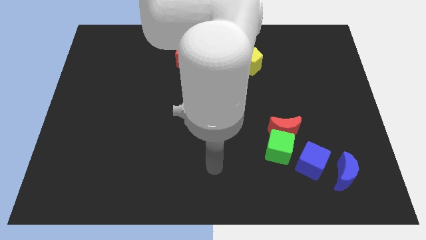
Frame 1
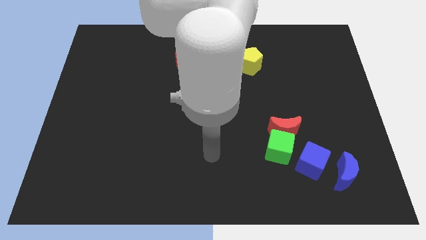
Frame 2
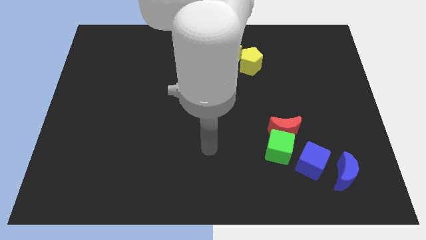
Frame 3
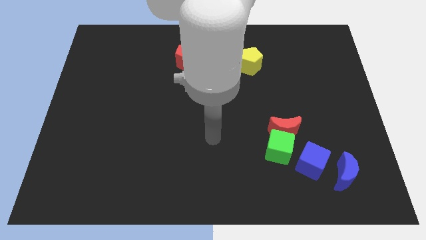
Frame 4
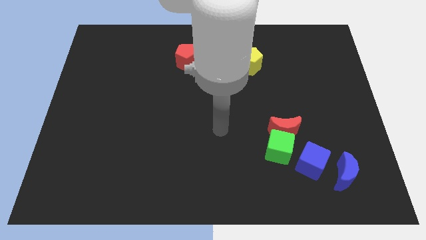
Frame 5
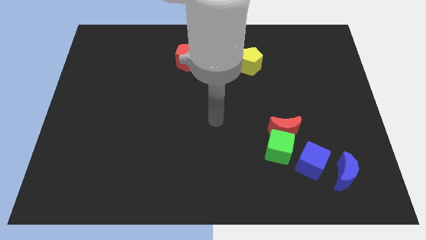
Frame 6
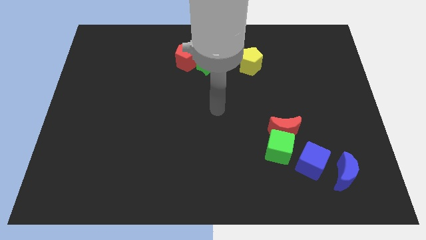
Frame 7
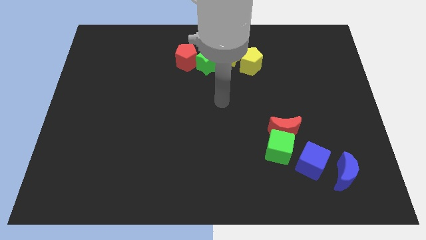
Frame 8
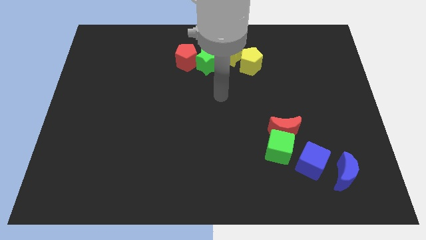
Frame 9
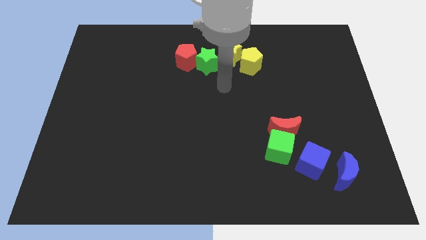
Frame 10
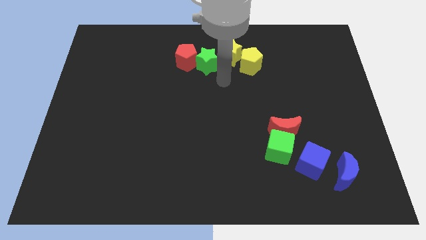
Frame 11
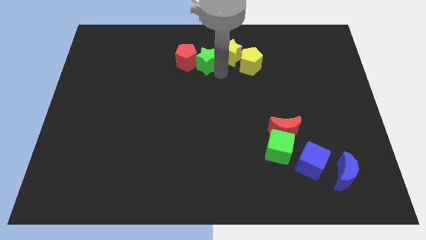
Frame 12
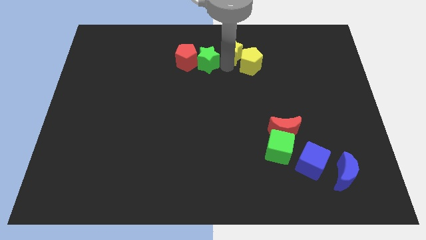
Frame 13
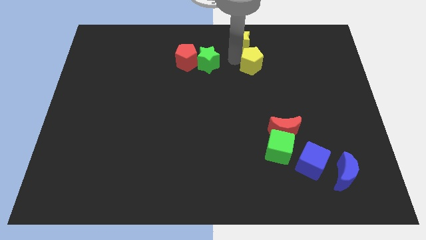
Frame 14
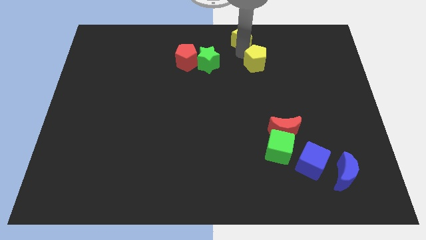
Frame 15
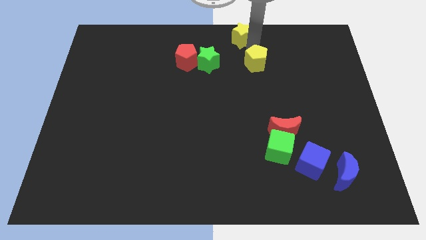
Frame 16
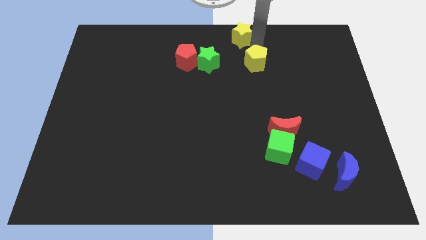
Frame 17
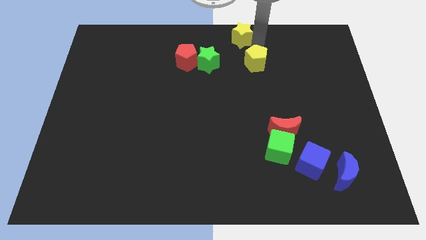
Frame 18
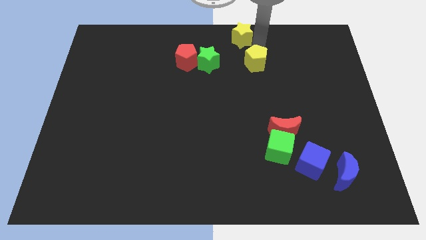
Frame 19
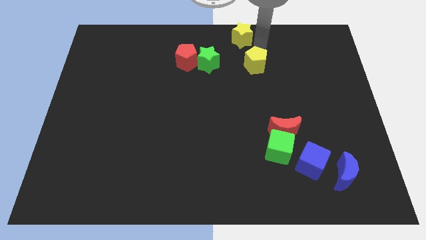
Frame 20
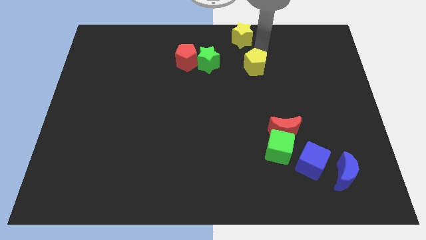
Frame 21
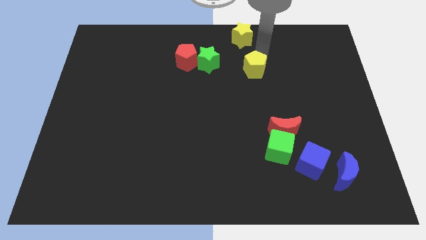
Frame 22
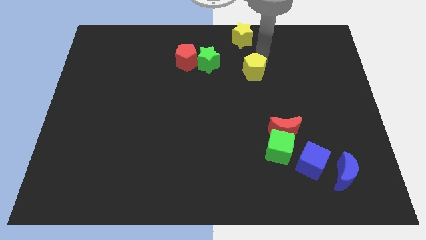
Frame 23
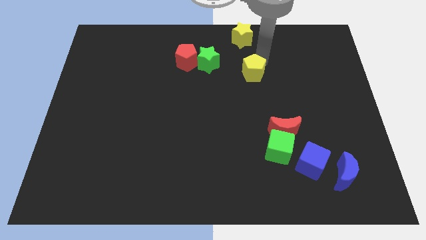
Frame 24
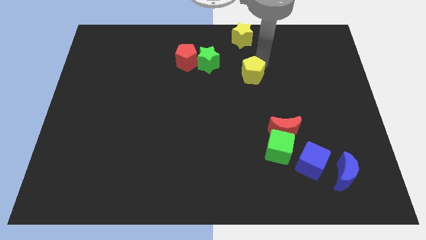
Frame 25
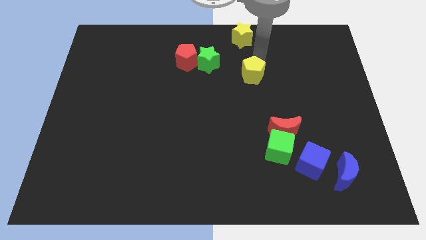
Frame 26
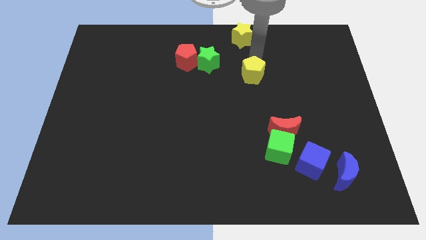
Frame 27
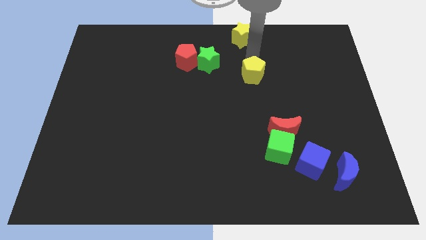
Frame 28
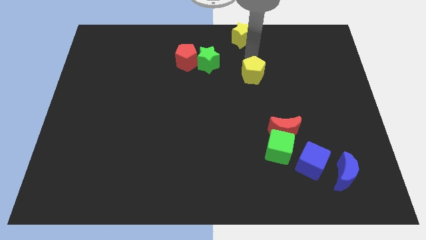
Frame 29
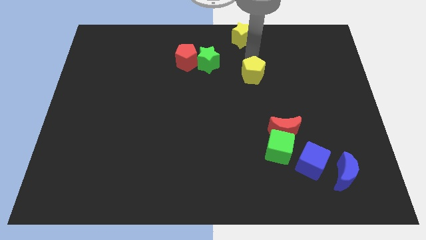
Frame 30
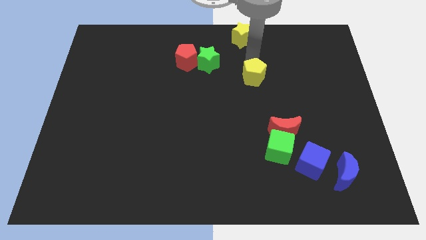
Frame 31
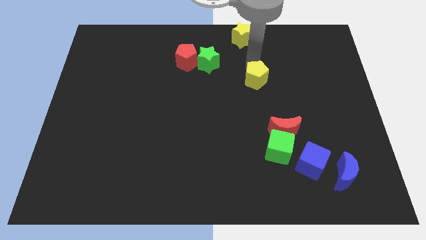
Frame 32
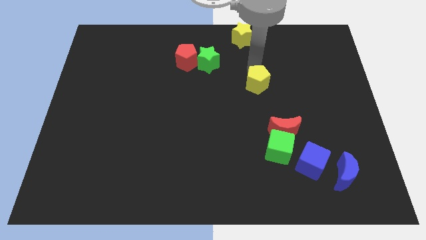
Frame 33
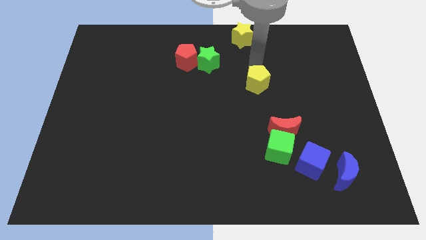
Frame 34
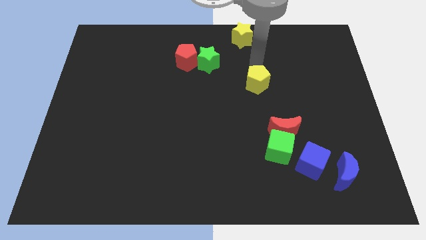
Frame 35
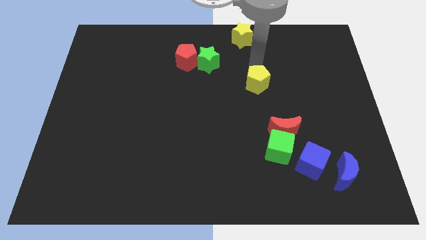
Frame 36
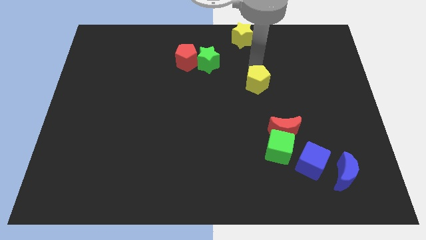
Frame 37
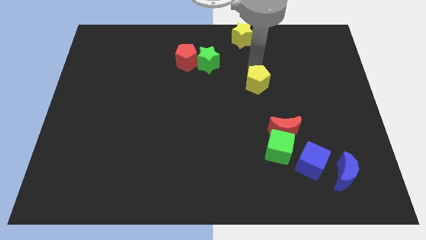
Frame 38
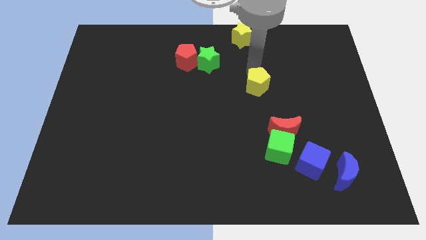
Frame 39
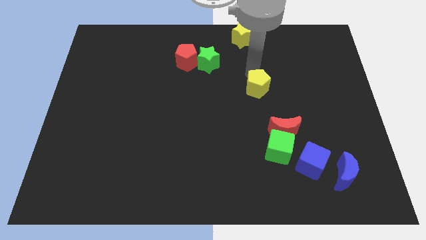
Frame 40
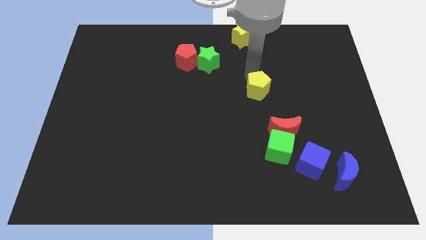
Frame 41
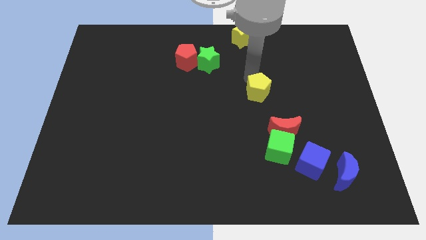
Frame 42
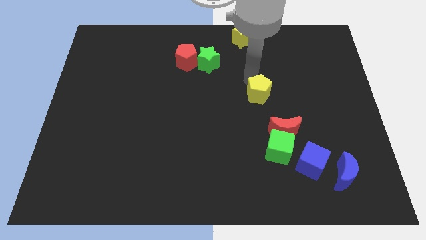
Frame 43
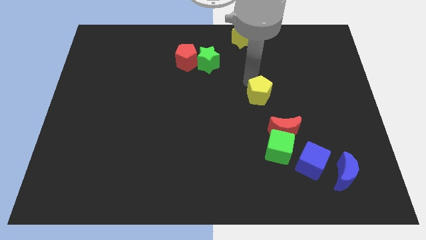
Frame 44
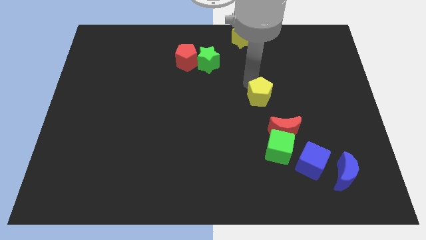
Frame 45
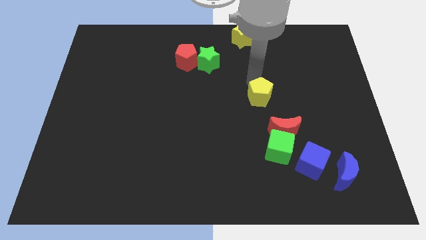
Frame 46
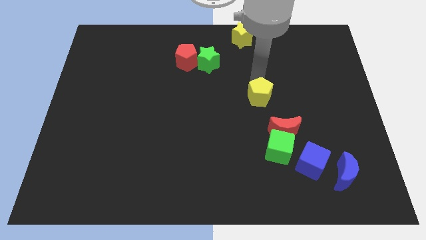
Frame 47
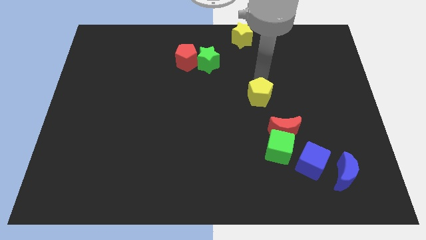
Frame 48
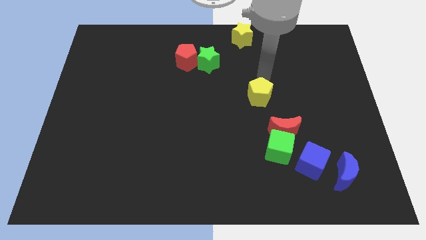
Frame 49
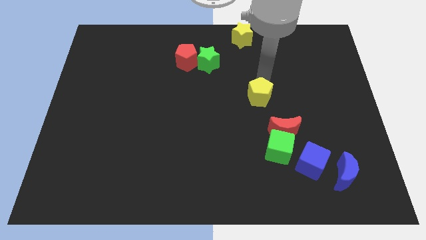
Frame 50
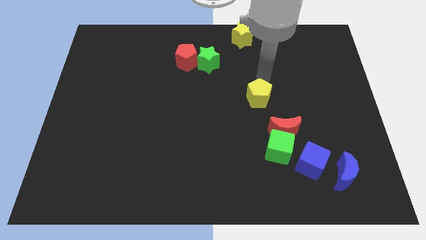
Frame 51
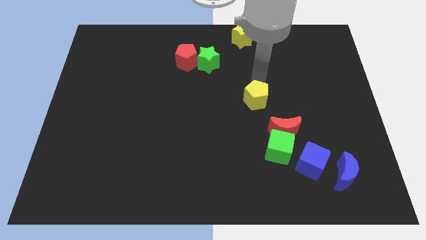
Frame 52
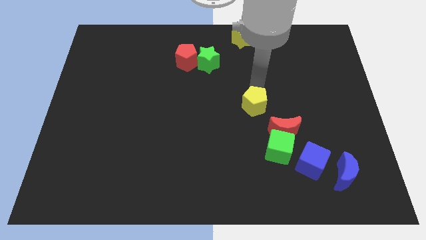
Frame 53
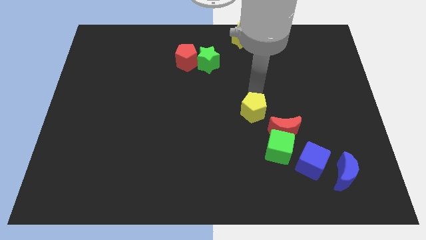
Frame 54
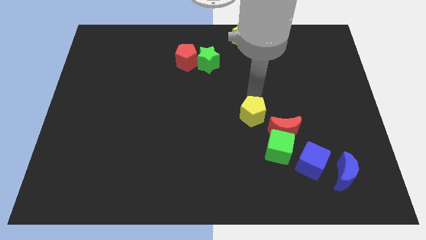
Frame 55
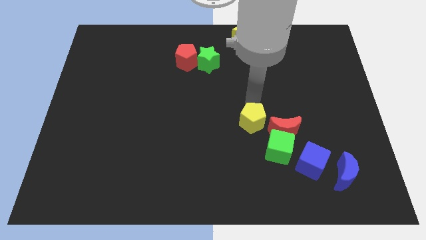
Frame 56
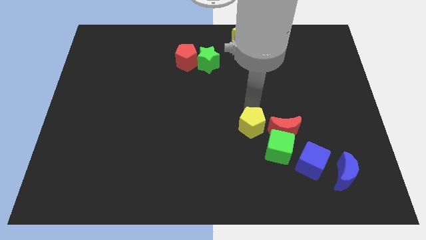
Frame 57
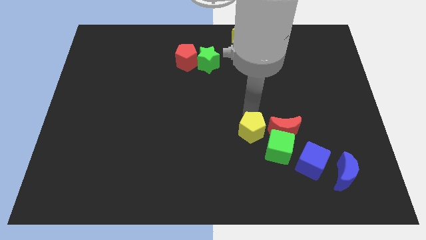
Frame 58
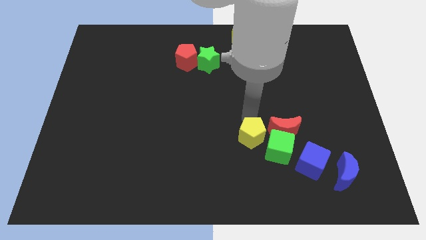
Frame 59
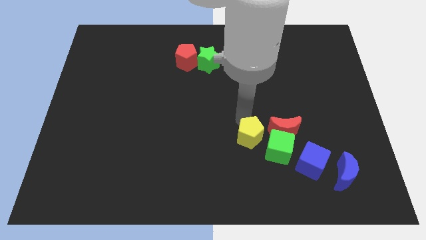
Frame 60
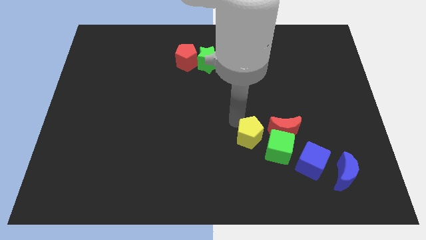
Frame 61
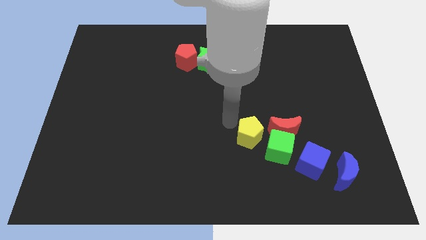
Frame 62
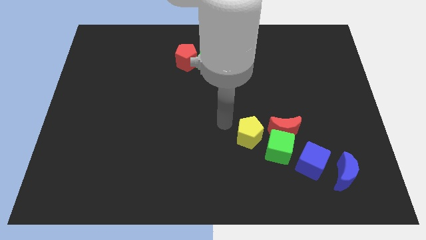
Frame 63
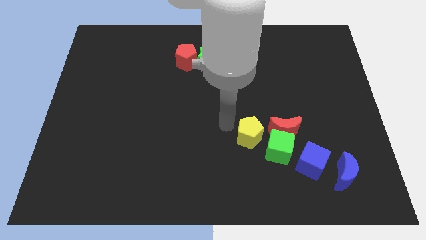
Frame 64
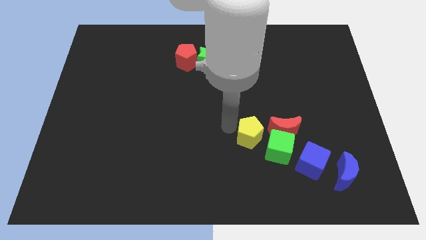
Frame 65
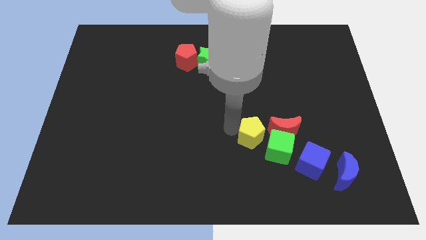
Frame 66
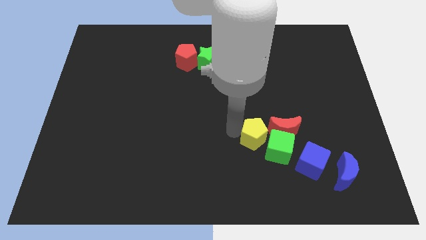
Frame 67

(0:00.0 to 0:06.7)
move the yellow pentagon to the green cube
